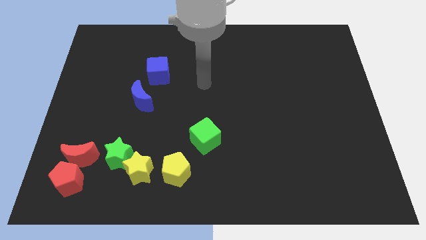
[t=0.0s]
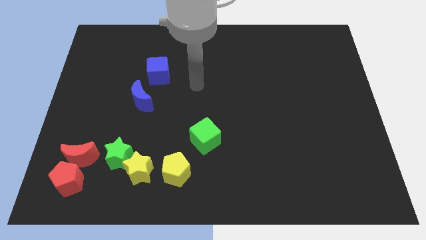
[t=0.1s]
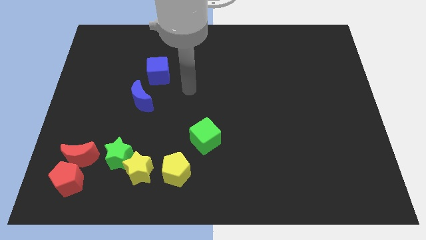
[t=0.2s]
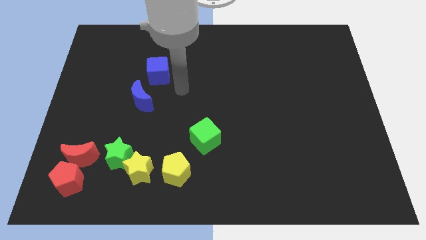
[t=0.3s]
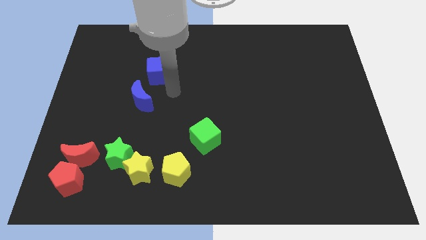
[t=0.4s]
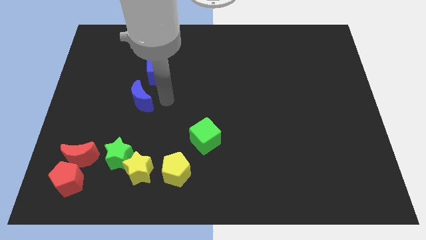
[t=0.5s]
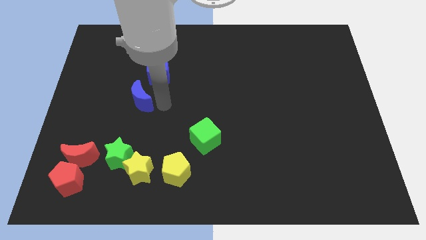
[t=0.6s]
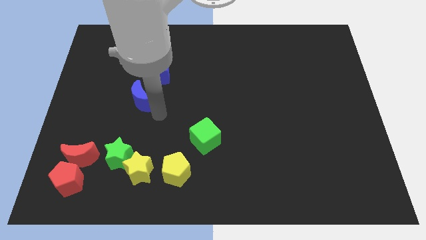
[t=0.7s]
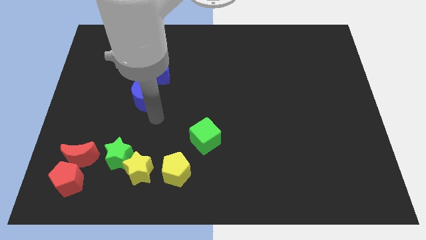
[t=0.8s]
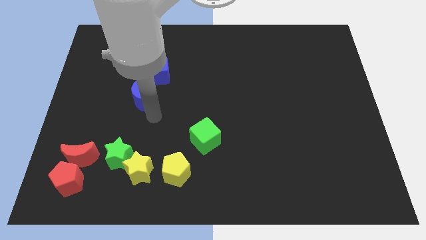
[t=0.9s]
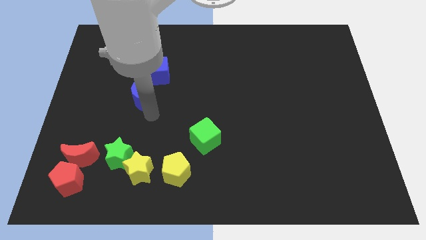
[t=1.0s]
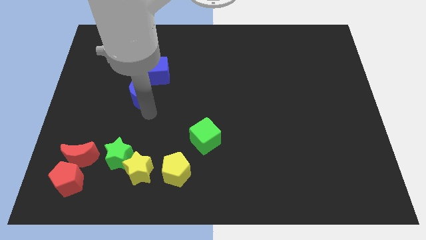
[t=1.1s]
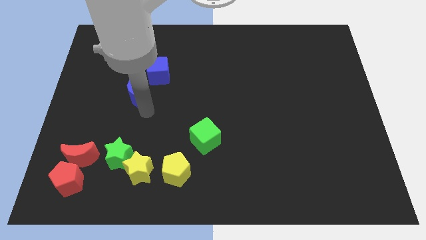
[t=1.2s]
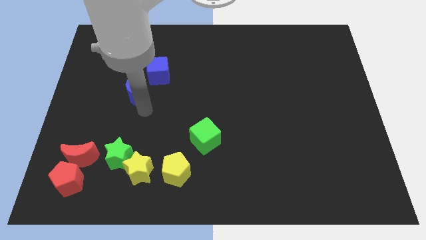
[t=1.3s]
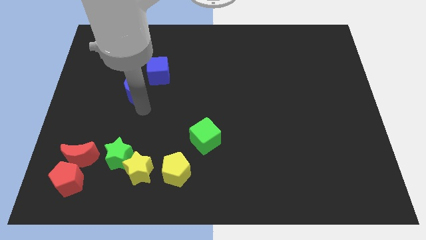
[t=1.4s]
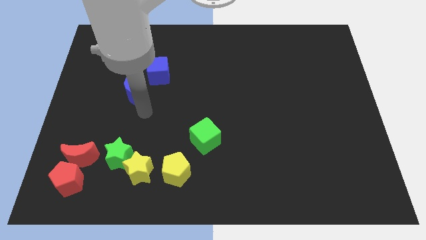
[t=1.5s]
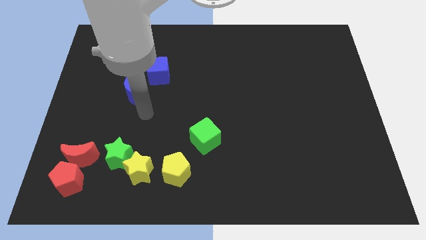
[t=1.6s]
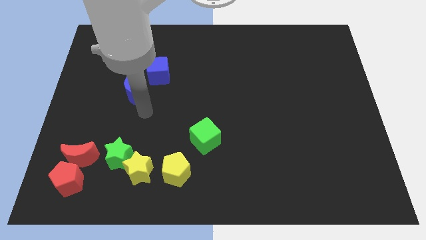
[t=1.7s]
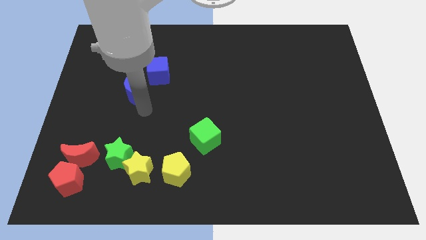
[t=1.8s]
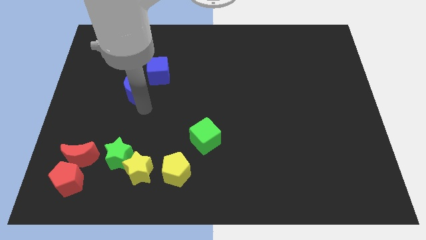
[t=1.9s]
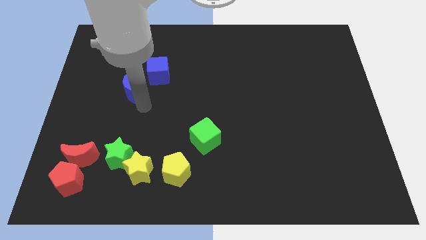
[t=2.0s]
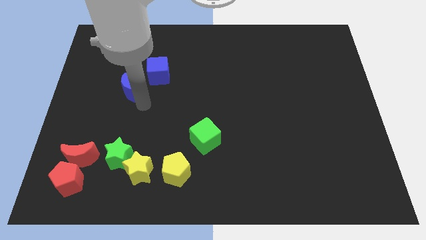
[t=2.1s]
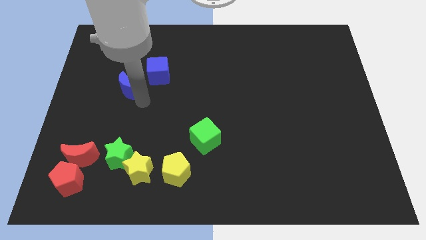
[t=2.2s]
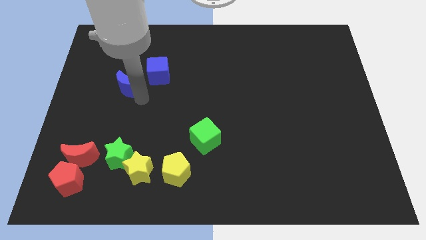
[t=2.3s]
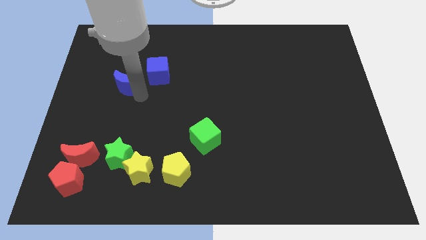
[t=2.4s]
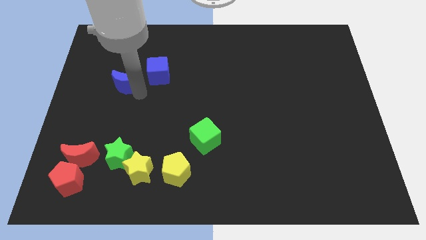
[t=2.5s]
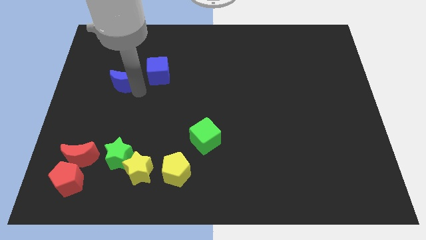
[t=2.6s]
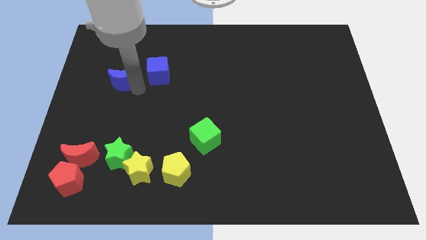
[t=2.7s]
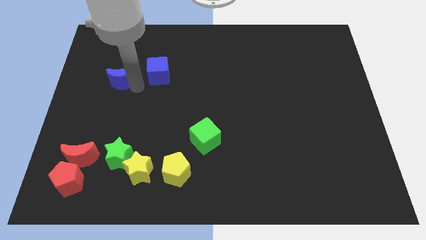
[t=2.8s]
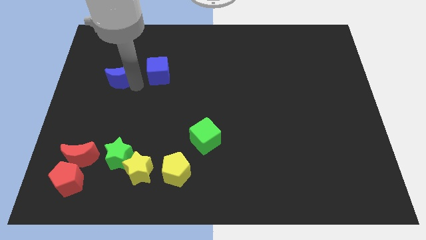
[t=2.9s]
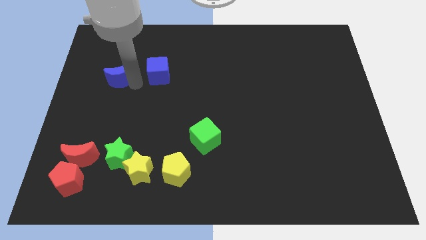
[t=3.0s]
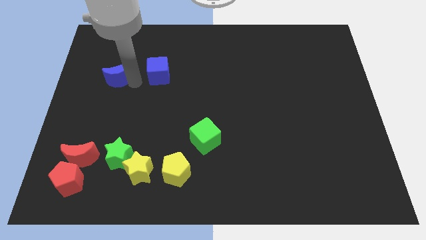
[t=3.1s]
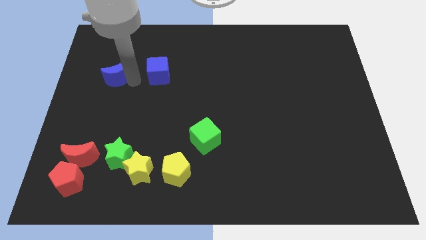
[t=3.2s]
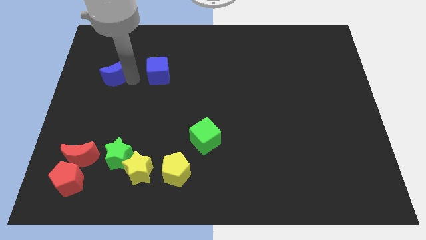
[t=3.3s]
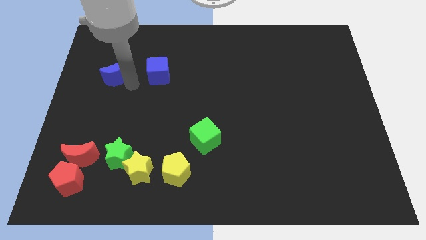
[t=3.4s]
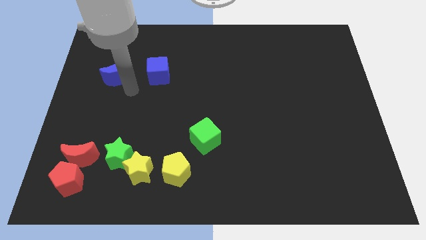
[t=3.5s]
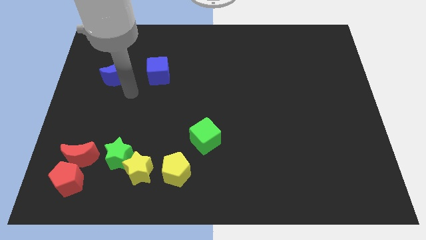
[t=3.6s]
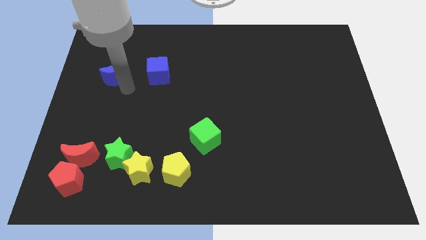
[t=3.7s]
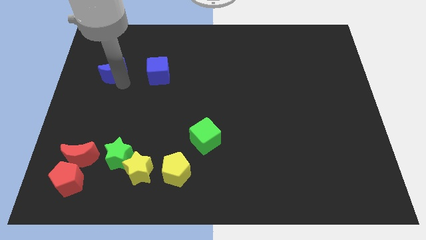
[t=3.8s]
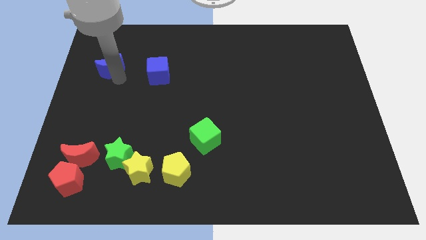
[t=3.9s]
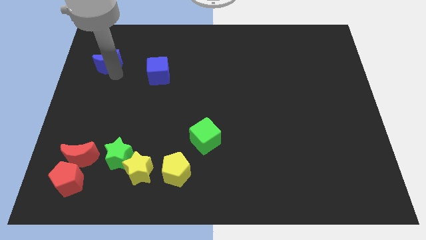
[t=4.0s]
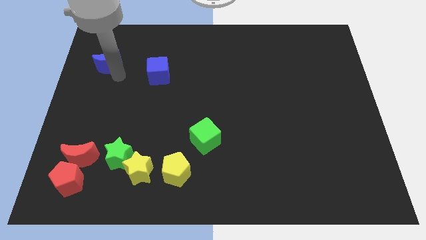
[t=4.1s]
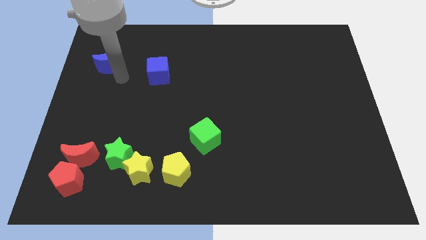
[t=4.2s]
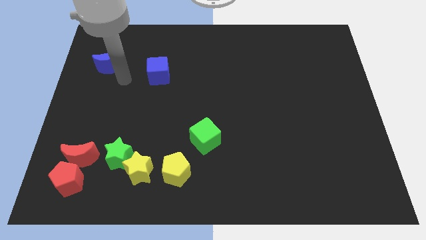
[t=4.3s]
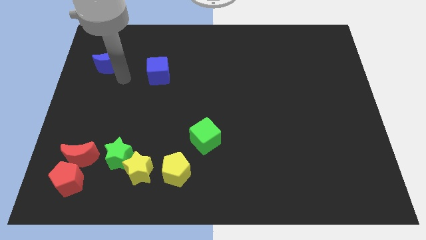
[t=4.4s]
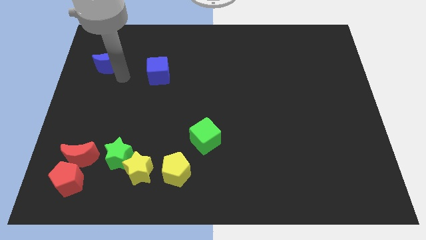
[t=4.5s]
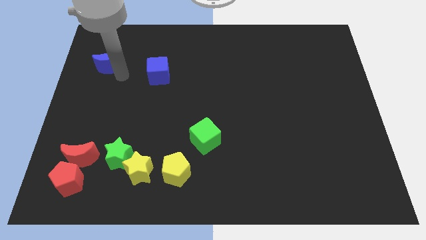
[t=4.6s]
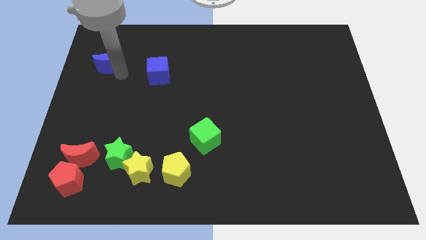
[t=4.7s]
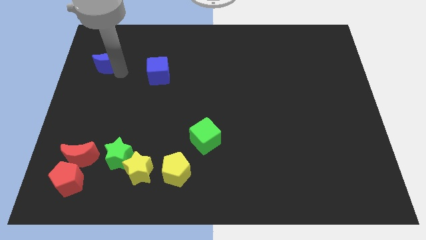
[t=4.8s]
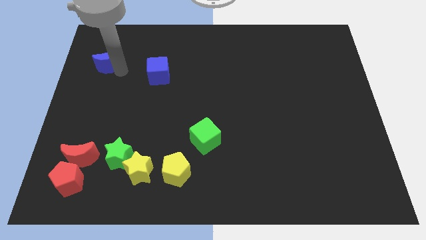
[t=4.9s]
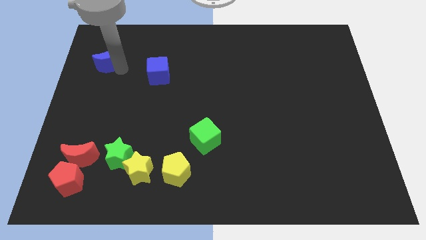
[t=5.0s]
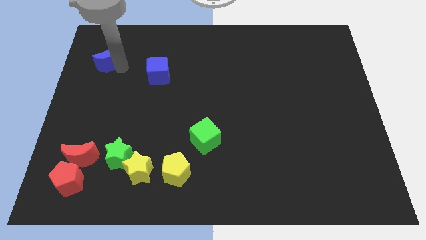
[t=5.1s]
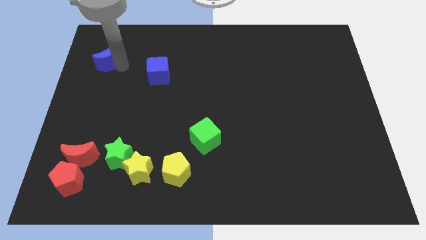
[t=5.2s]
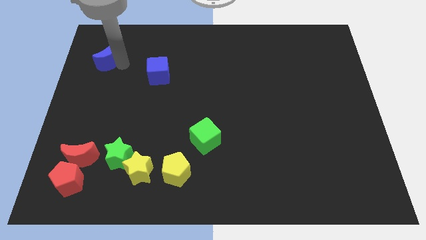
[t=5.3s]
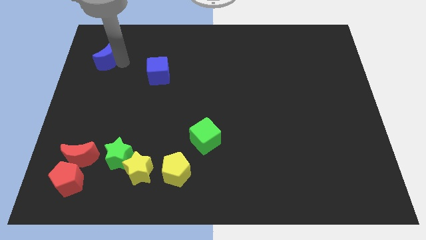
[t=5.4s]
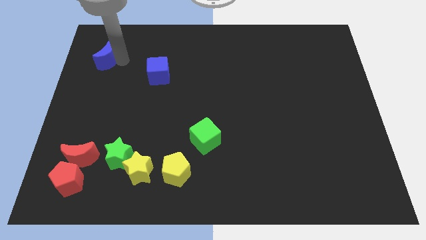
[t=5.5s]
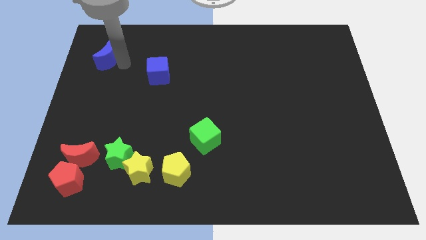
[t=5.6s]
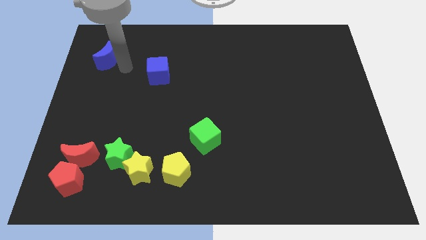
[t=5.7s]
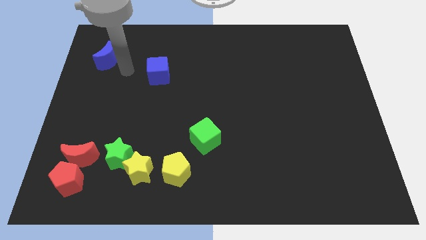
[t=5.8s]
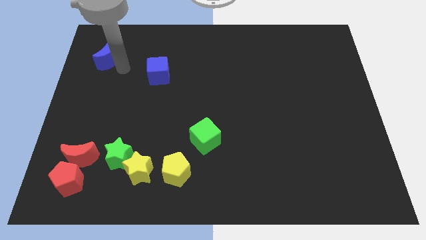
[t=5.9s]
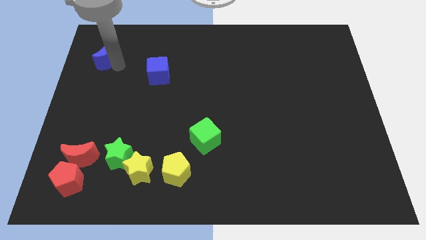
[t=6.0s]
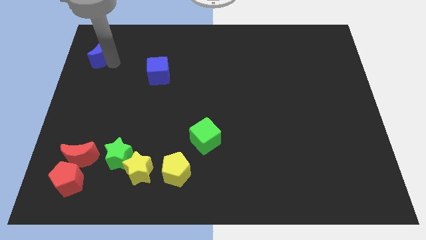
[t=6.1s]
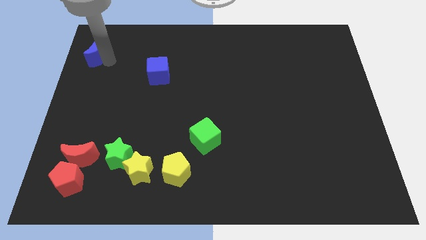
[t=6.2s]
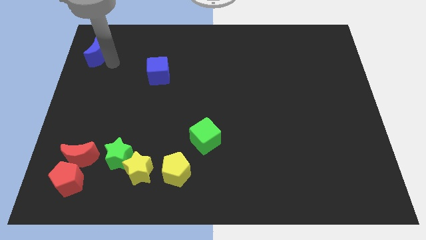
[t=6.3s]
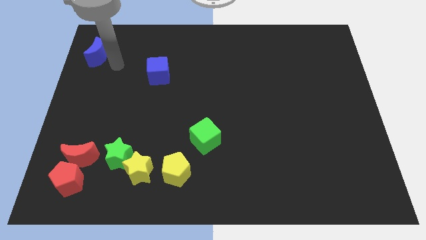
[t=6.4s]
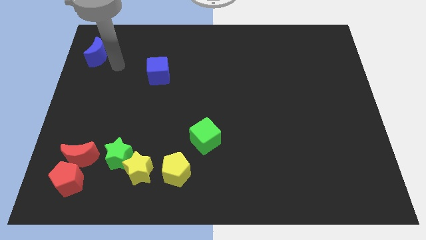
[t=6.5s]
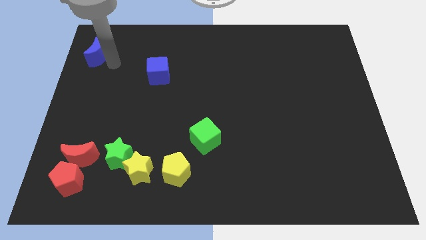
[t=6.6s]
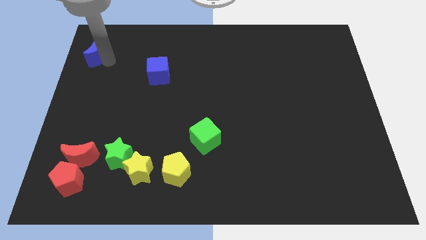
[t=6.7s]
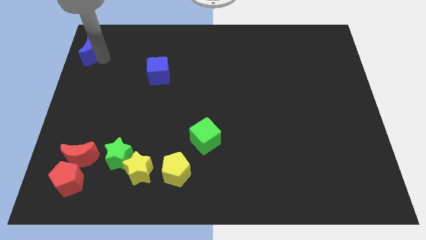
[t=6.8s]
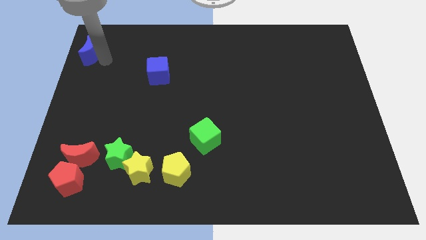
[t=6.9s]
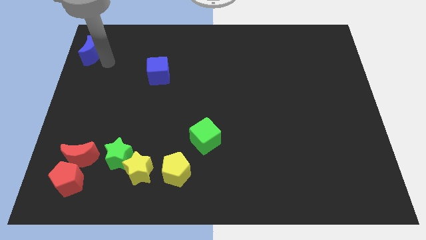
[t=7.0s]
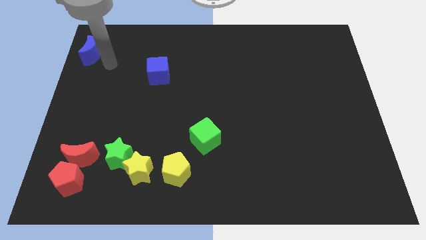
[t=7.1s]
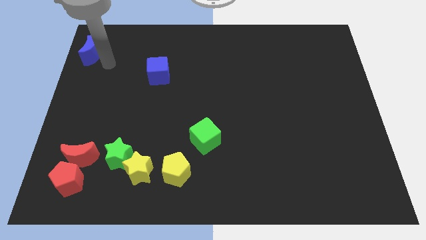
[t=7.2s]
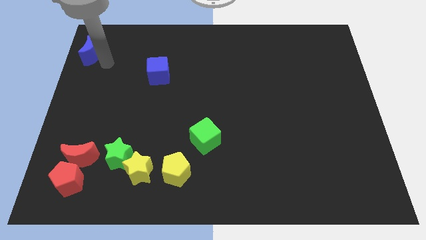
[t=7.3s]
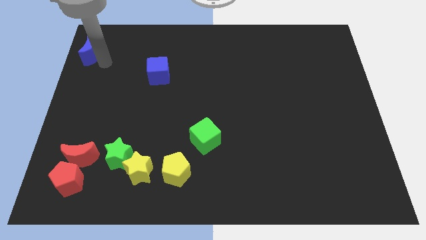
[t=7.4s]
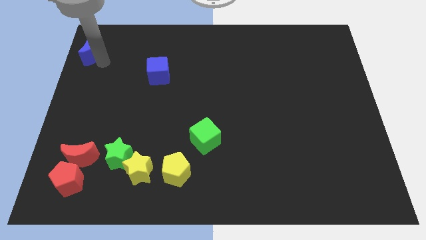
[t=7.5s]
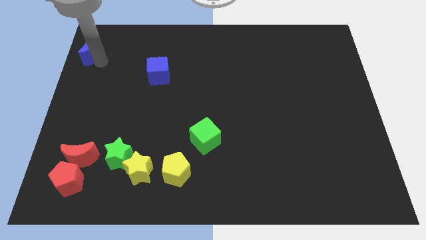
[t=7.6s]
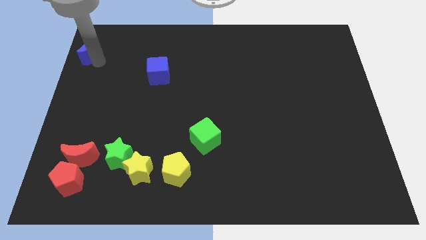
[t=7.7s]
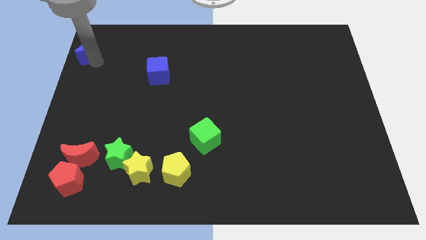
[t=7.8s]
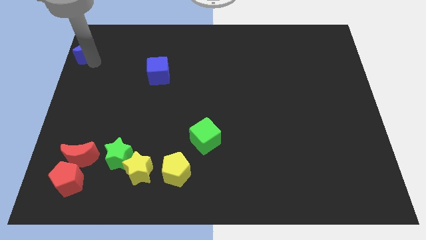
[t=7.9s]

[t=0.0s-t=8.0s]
put the blue moon to the upper left corner
